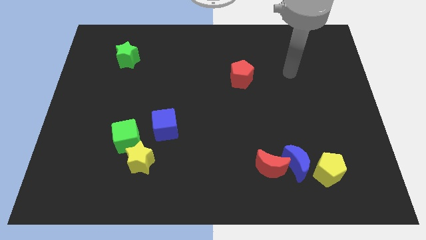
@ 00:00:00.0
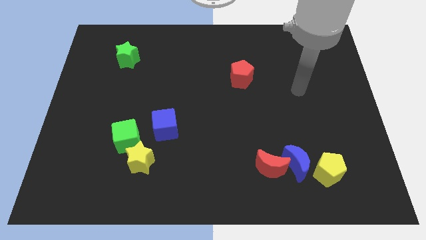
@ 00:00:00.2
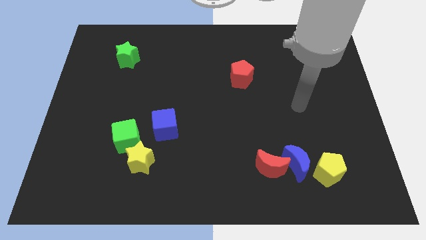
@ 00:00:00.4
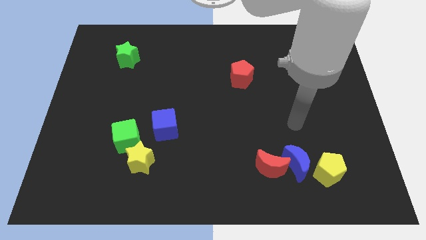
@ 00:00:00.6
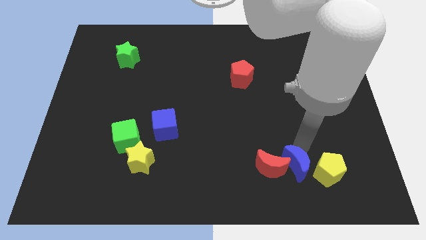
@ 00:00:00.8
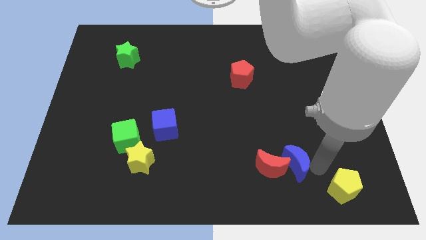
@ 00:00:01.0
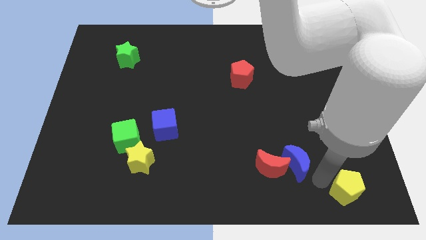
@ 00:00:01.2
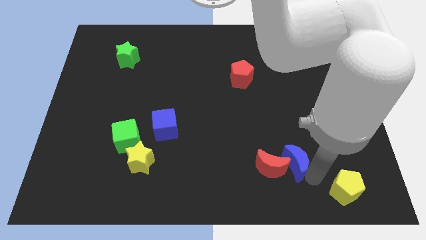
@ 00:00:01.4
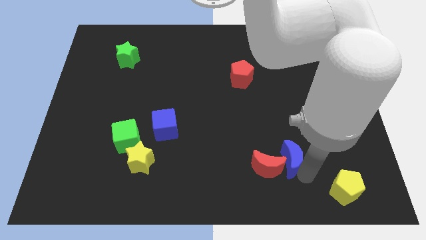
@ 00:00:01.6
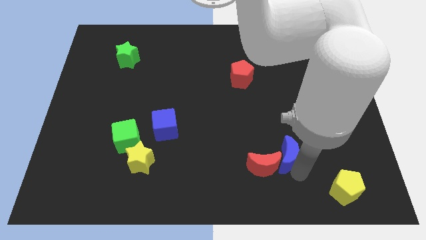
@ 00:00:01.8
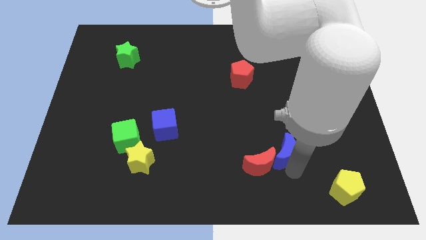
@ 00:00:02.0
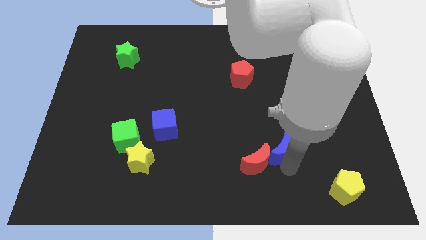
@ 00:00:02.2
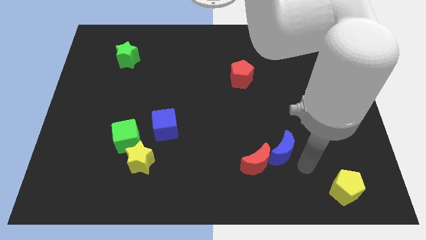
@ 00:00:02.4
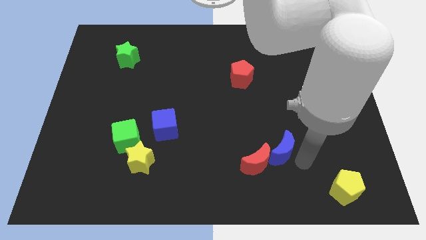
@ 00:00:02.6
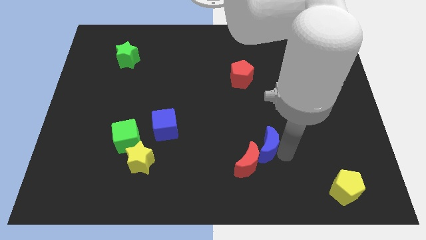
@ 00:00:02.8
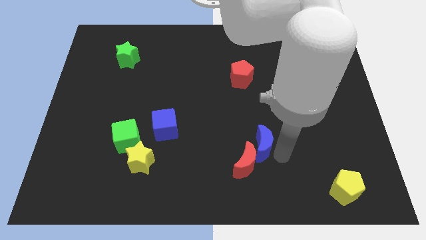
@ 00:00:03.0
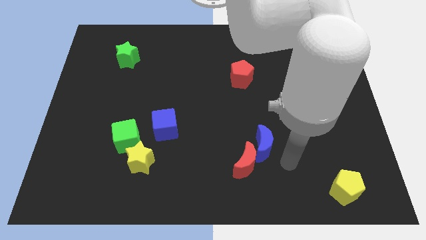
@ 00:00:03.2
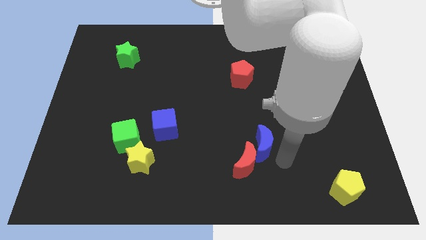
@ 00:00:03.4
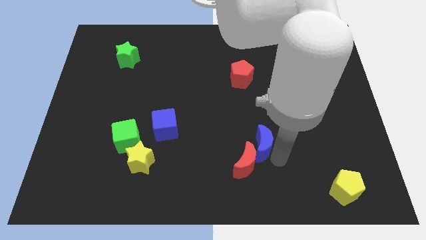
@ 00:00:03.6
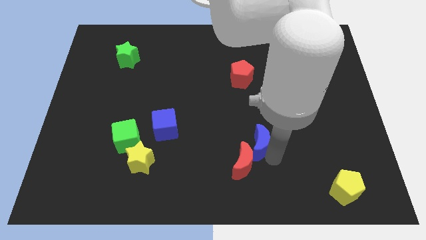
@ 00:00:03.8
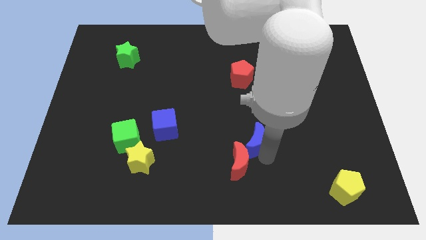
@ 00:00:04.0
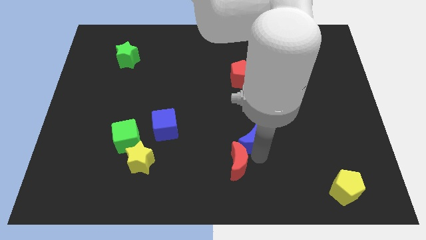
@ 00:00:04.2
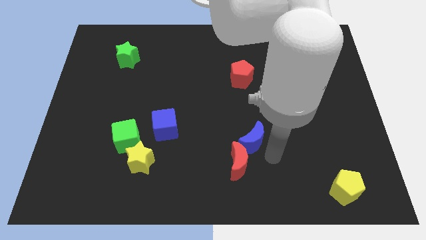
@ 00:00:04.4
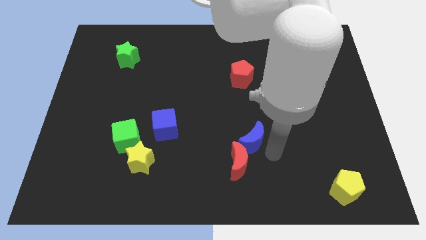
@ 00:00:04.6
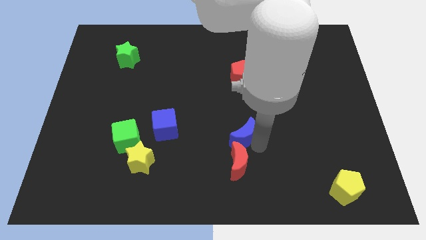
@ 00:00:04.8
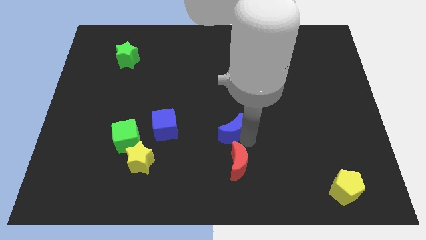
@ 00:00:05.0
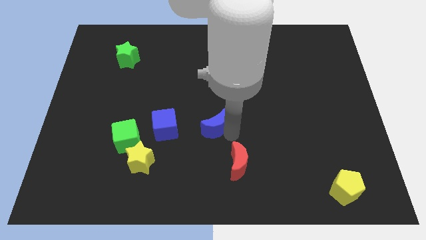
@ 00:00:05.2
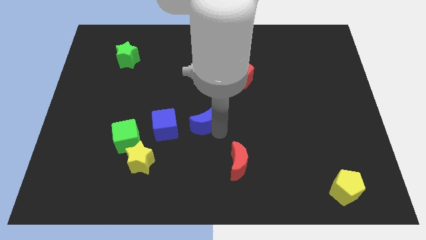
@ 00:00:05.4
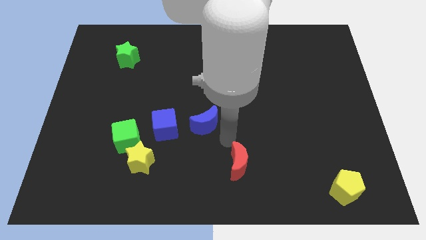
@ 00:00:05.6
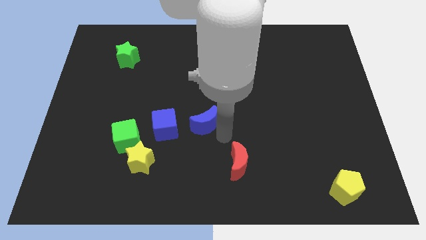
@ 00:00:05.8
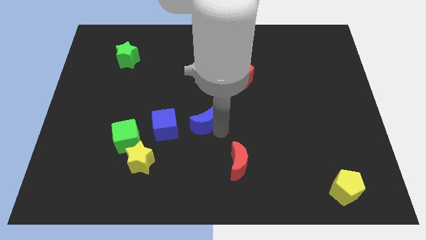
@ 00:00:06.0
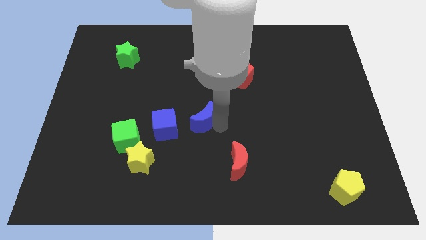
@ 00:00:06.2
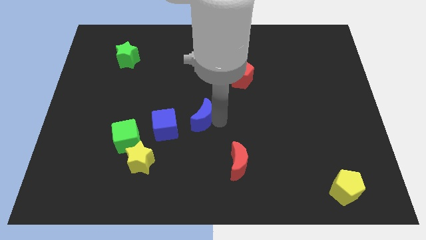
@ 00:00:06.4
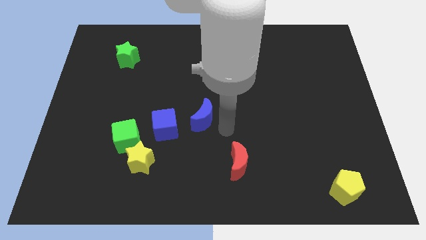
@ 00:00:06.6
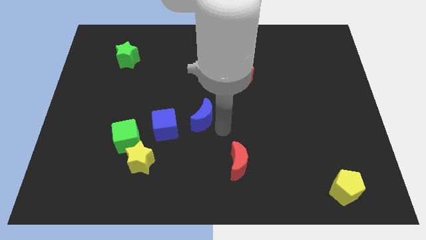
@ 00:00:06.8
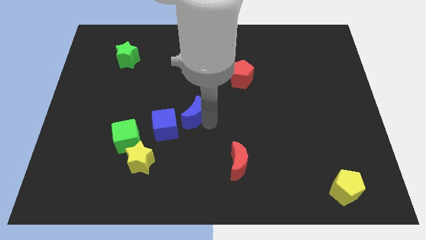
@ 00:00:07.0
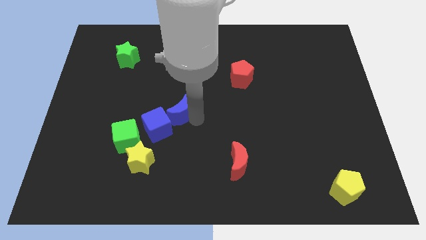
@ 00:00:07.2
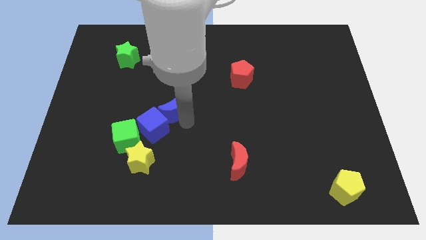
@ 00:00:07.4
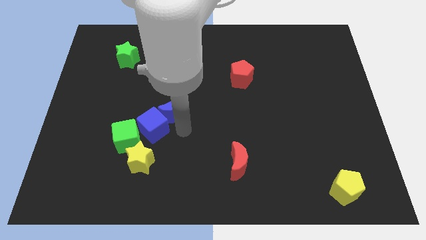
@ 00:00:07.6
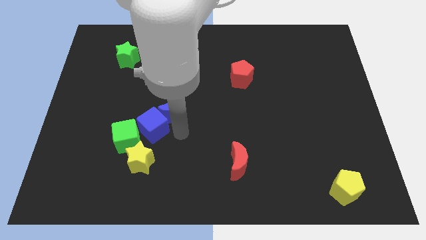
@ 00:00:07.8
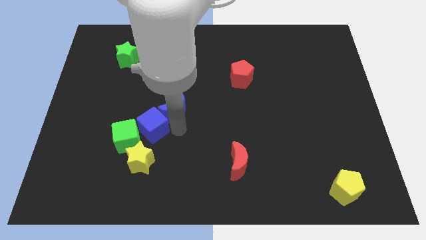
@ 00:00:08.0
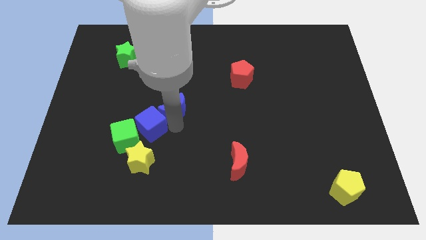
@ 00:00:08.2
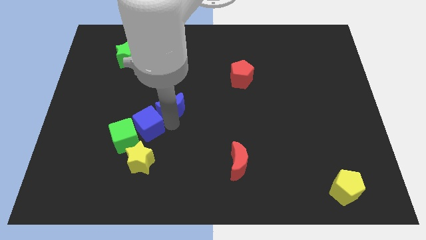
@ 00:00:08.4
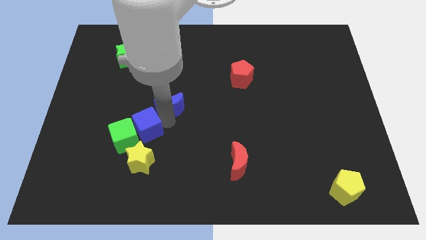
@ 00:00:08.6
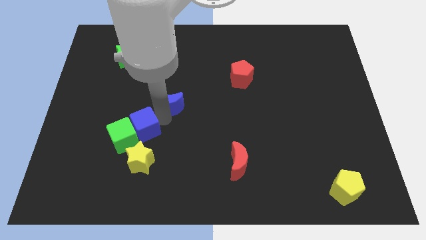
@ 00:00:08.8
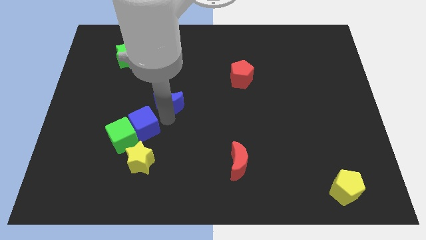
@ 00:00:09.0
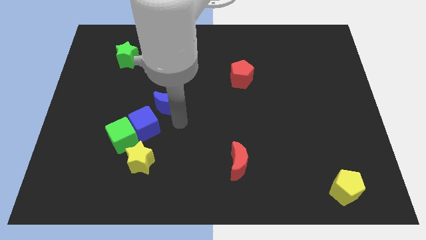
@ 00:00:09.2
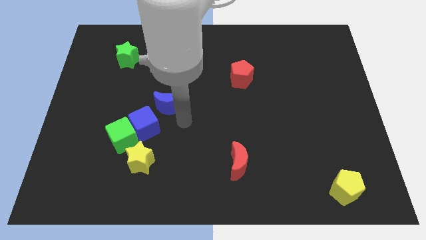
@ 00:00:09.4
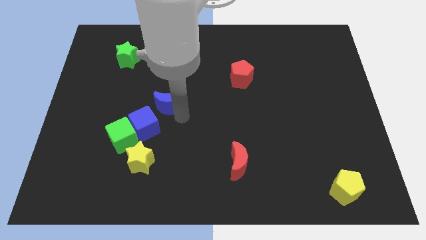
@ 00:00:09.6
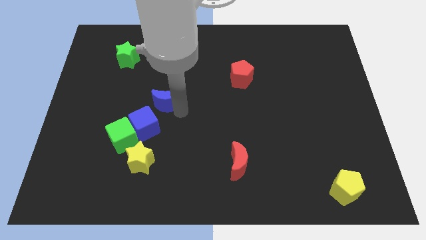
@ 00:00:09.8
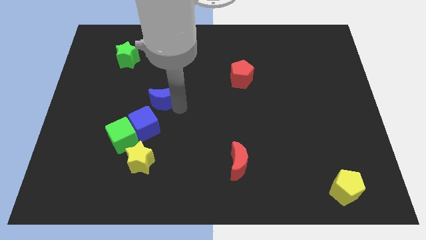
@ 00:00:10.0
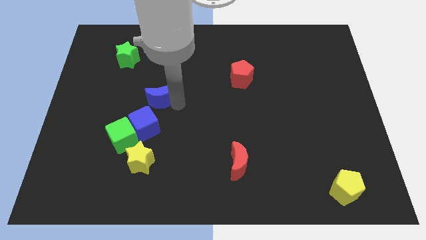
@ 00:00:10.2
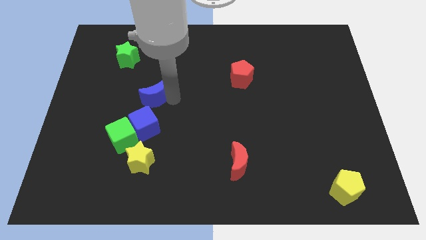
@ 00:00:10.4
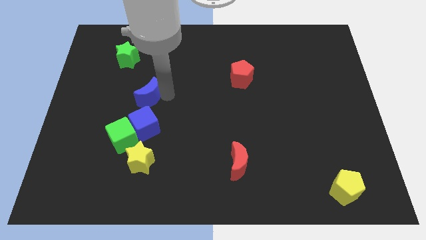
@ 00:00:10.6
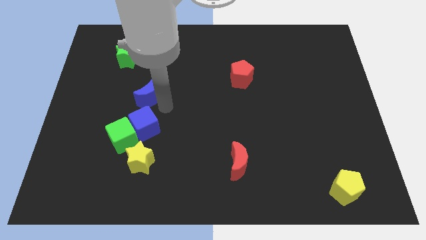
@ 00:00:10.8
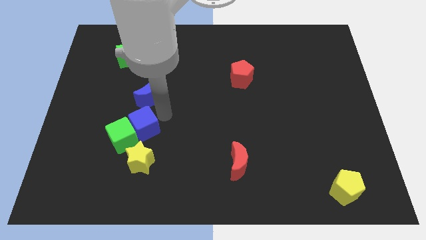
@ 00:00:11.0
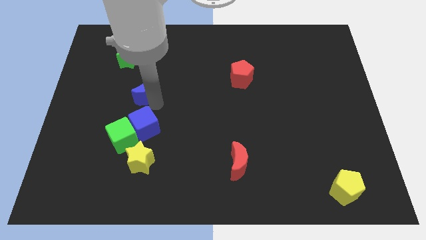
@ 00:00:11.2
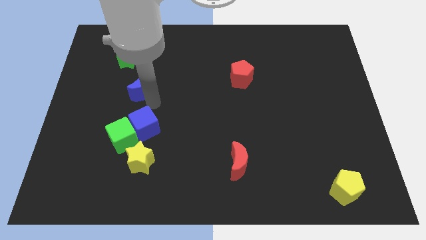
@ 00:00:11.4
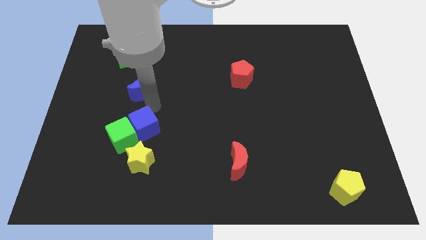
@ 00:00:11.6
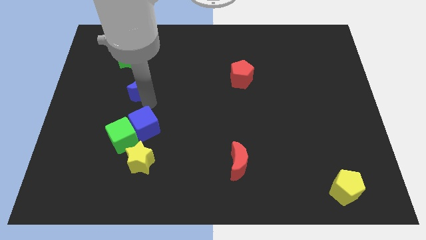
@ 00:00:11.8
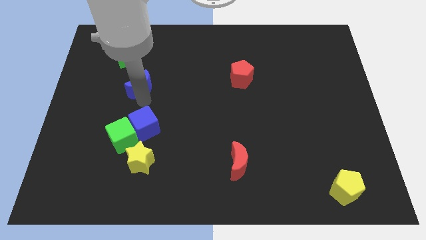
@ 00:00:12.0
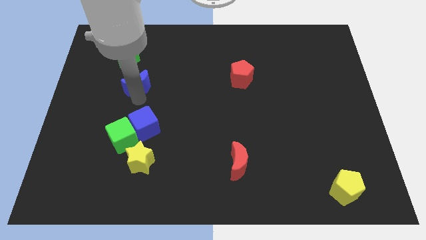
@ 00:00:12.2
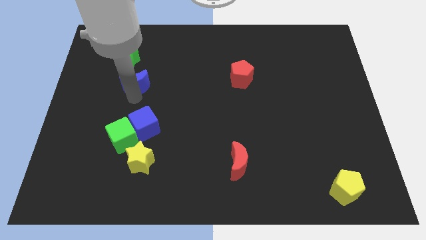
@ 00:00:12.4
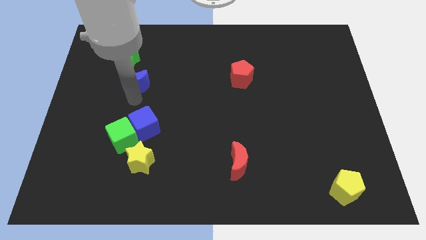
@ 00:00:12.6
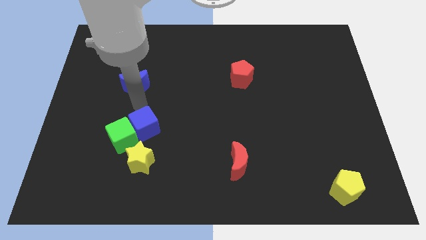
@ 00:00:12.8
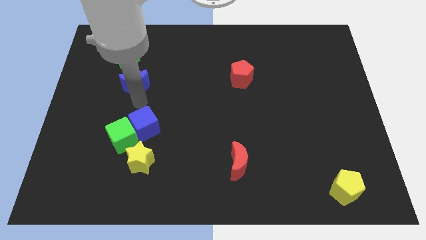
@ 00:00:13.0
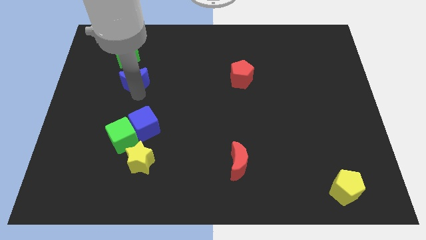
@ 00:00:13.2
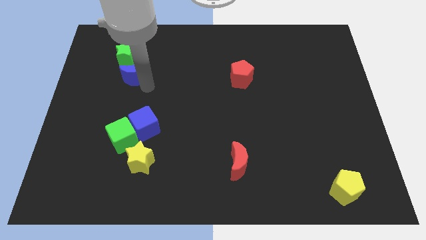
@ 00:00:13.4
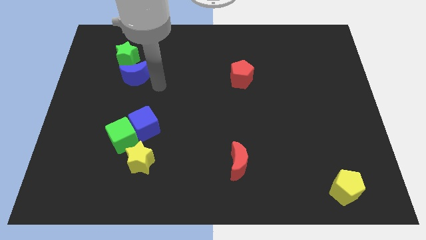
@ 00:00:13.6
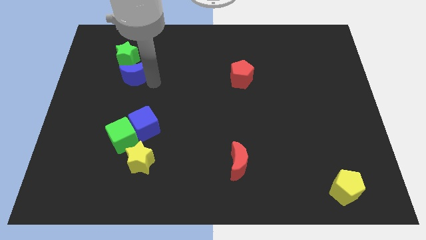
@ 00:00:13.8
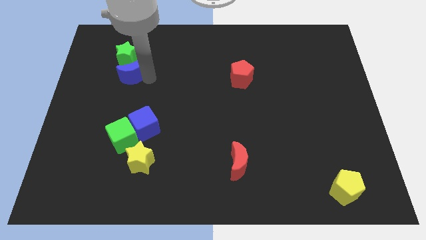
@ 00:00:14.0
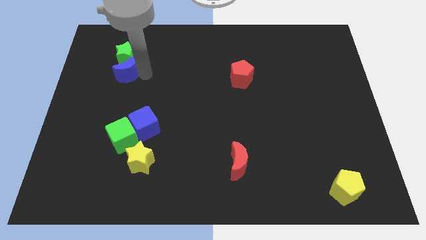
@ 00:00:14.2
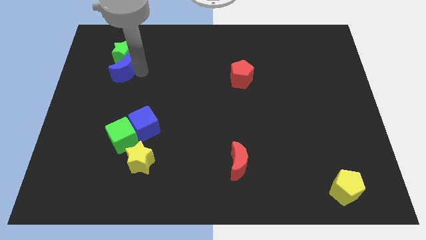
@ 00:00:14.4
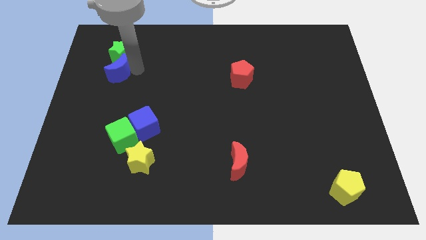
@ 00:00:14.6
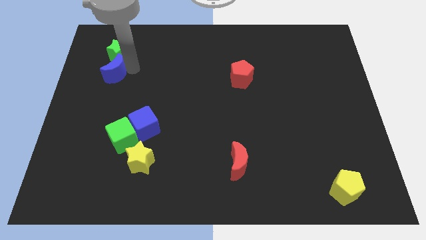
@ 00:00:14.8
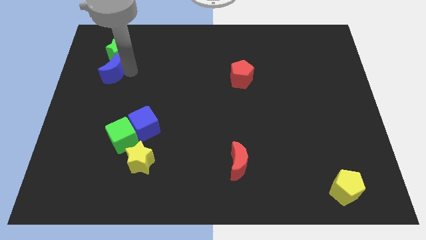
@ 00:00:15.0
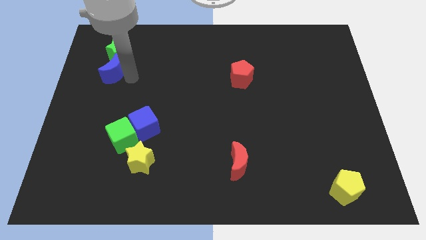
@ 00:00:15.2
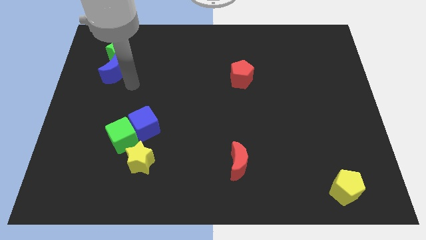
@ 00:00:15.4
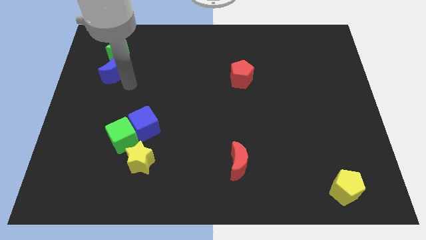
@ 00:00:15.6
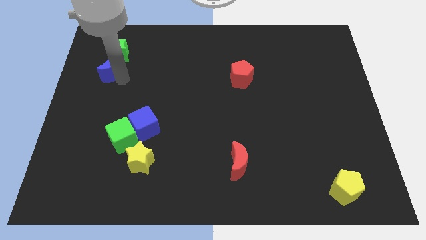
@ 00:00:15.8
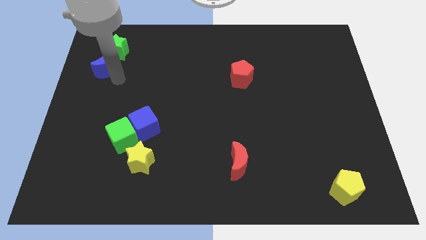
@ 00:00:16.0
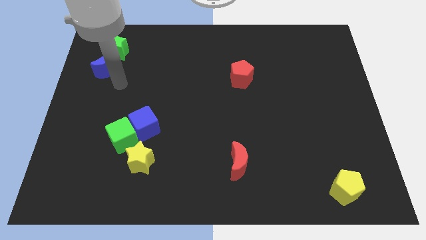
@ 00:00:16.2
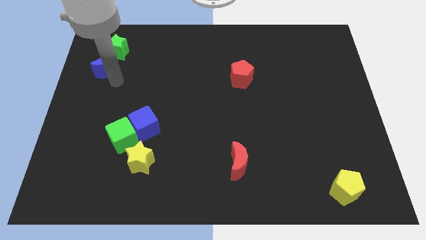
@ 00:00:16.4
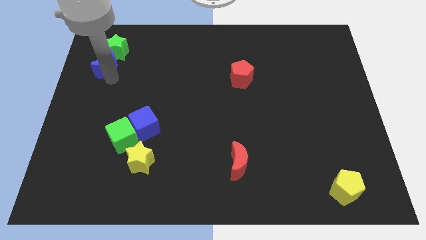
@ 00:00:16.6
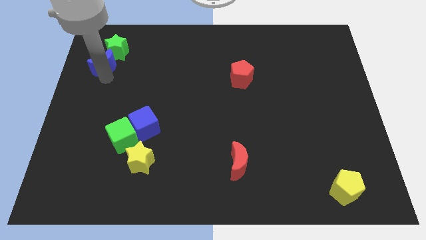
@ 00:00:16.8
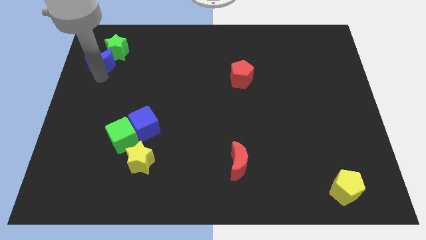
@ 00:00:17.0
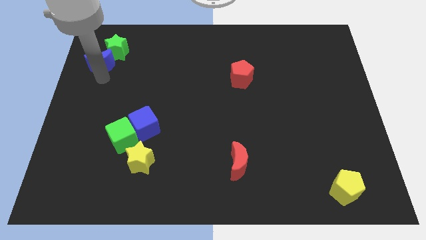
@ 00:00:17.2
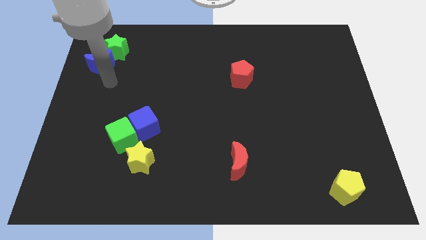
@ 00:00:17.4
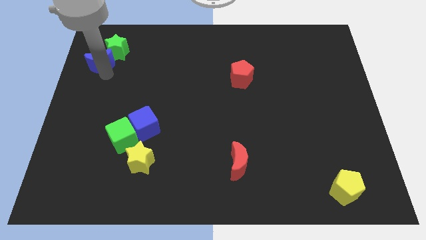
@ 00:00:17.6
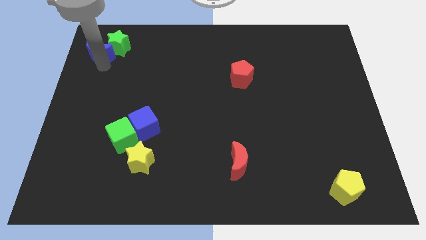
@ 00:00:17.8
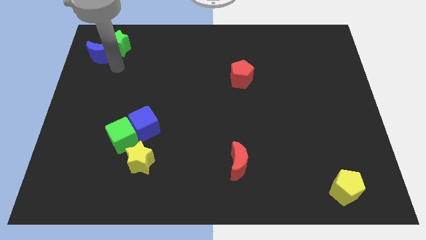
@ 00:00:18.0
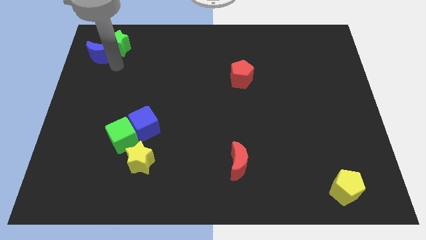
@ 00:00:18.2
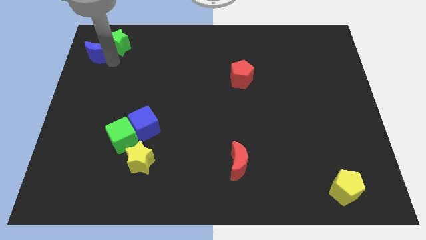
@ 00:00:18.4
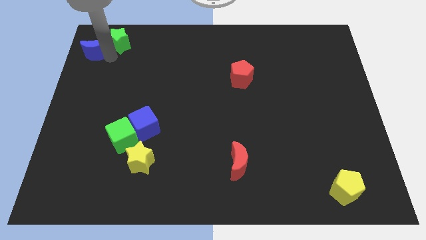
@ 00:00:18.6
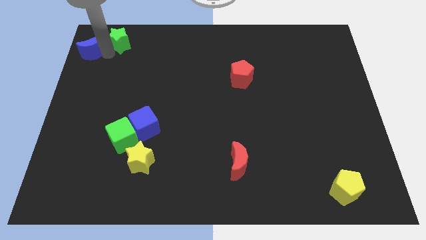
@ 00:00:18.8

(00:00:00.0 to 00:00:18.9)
move the blue moon to the top left of the board
